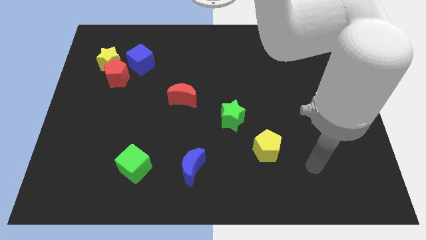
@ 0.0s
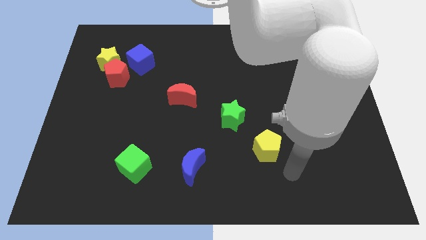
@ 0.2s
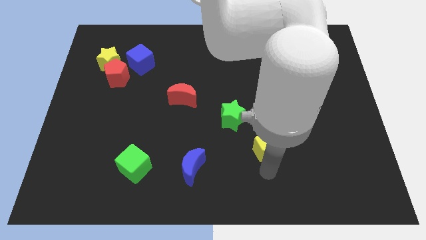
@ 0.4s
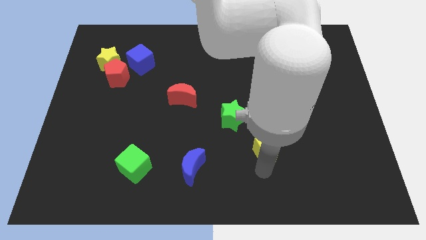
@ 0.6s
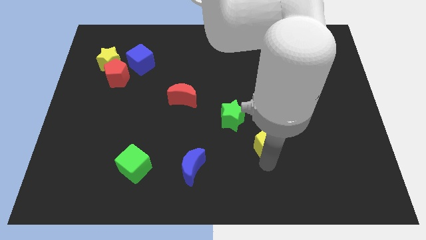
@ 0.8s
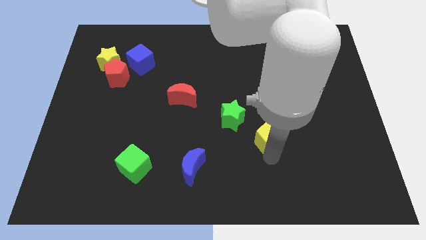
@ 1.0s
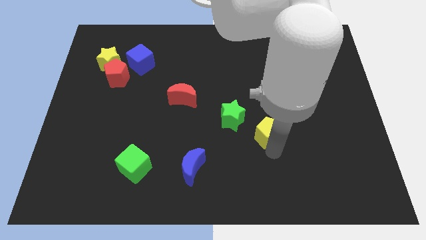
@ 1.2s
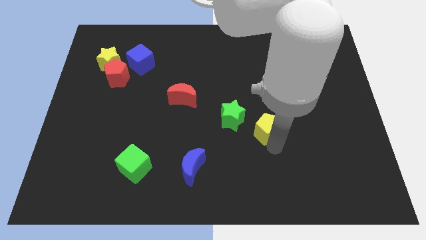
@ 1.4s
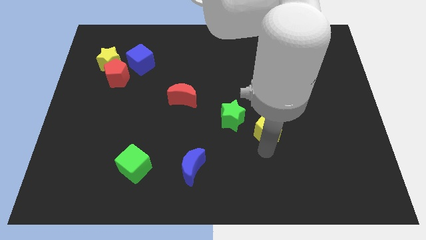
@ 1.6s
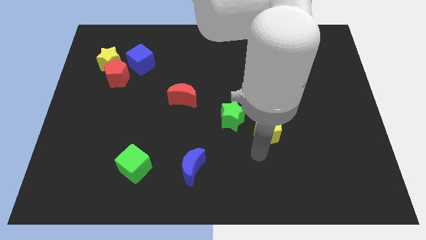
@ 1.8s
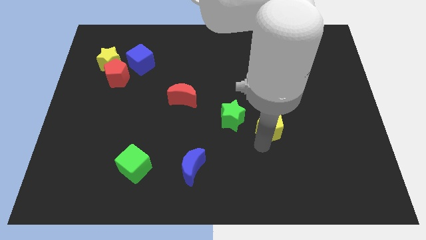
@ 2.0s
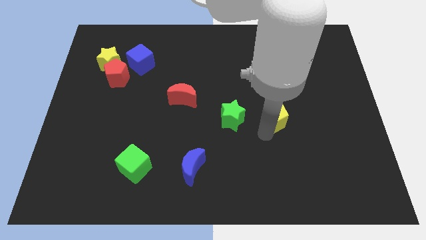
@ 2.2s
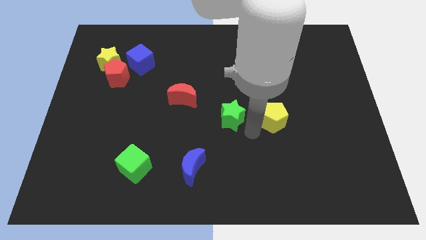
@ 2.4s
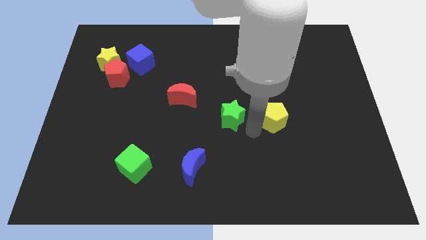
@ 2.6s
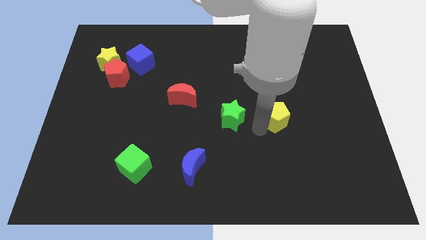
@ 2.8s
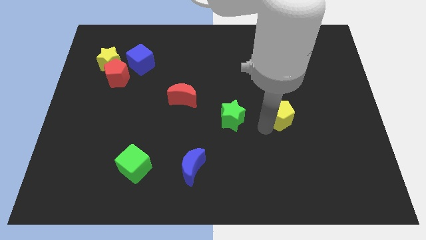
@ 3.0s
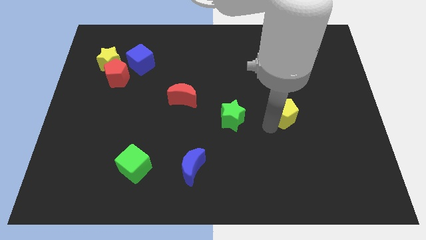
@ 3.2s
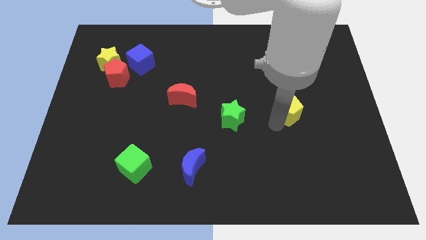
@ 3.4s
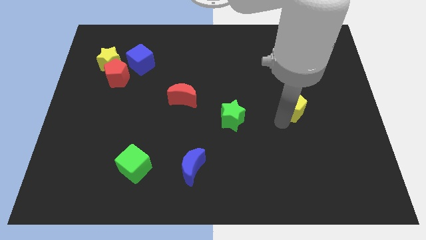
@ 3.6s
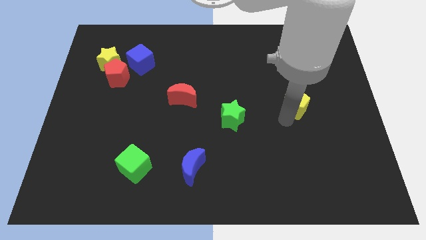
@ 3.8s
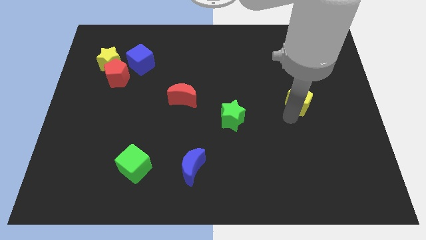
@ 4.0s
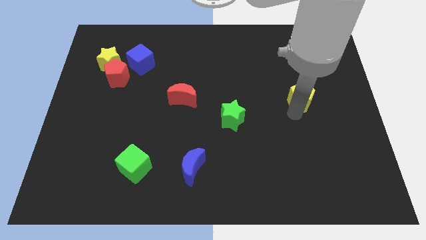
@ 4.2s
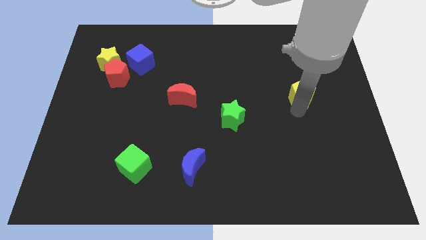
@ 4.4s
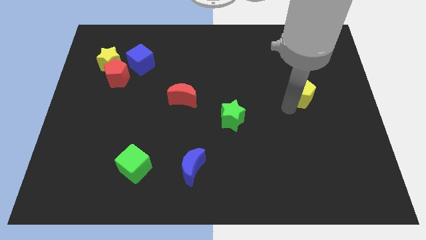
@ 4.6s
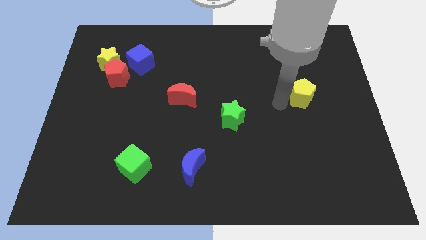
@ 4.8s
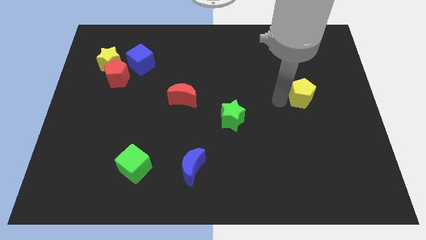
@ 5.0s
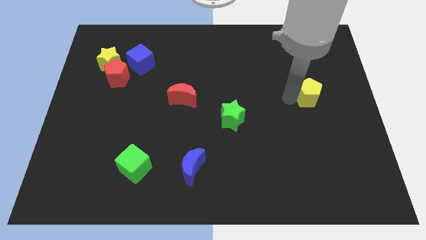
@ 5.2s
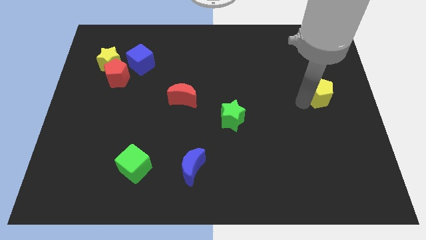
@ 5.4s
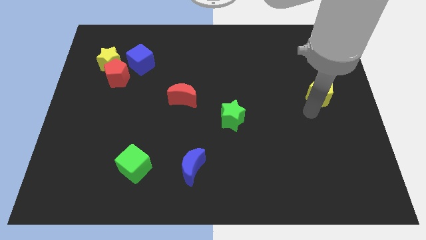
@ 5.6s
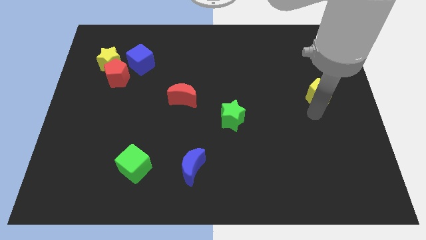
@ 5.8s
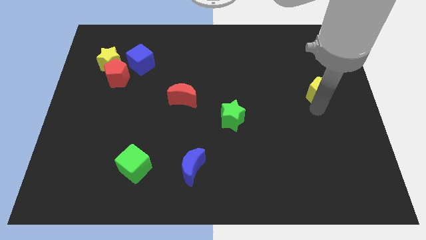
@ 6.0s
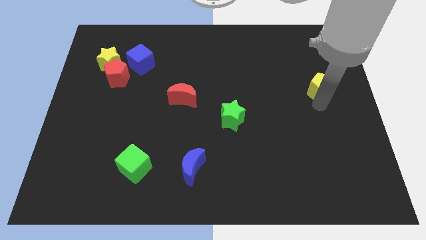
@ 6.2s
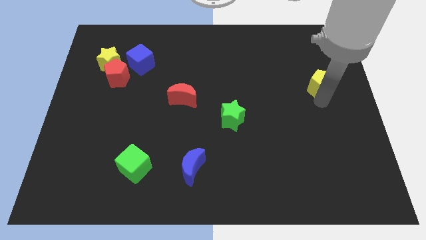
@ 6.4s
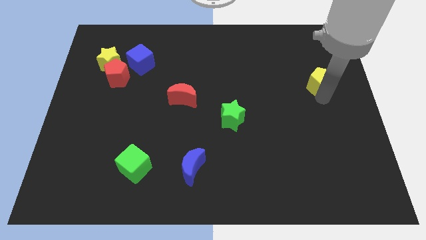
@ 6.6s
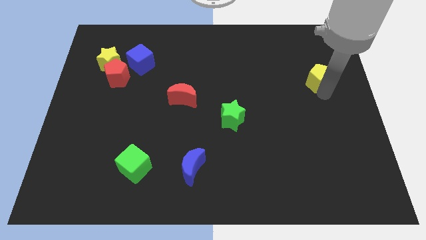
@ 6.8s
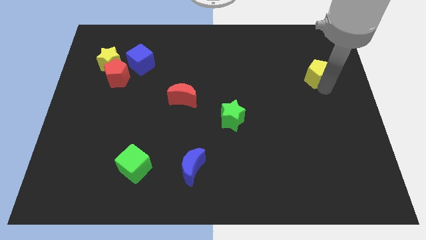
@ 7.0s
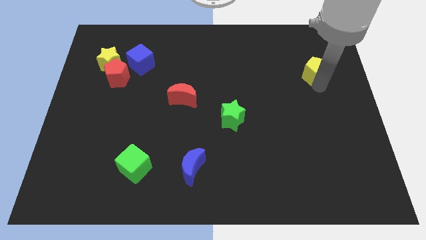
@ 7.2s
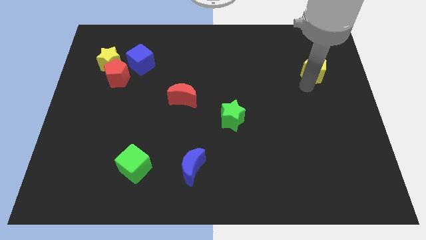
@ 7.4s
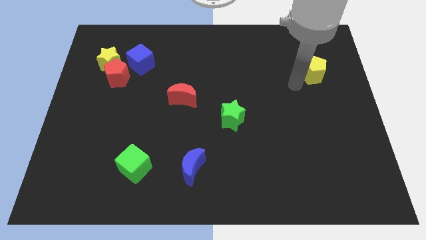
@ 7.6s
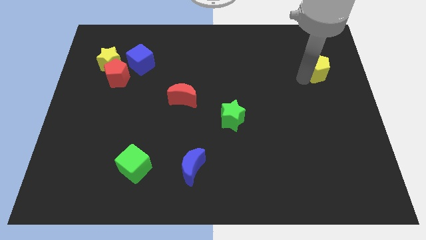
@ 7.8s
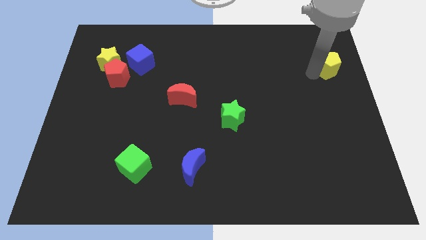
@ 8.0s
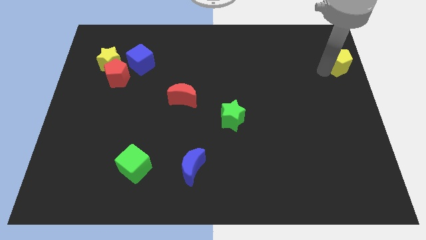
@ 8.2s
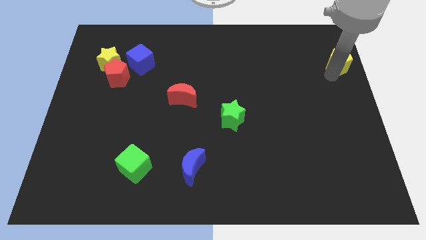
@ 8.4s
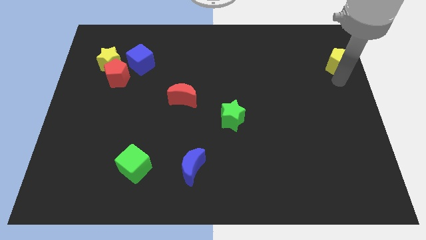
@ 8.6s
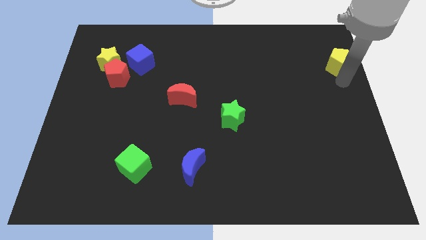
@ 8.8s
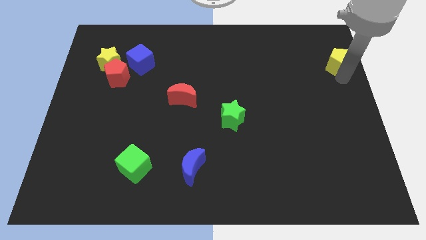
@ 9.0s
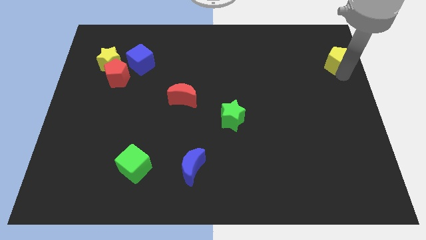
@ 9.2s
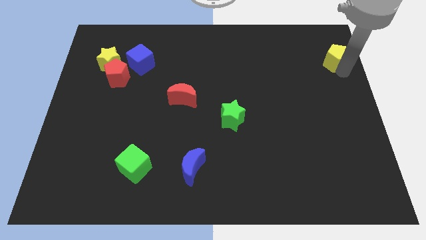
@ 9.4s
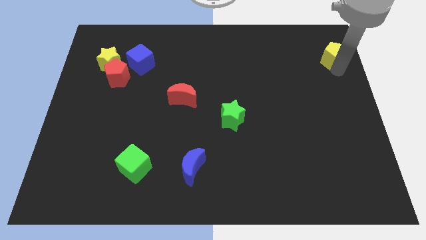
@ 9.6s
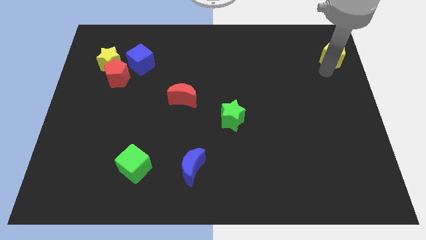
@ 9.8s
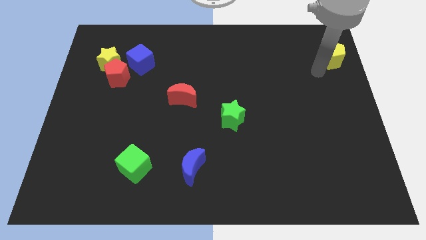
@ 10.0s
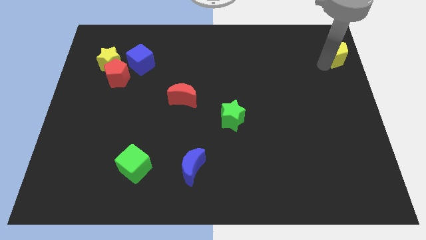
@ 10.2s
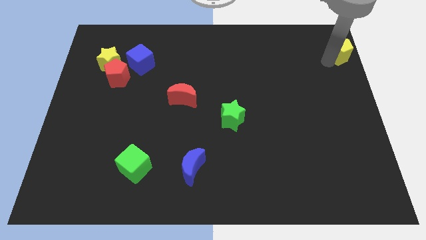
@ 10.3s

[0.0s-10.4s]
push the yellow pentagon to the top right corner

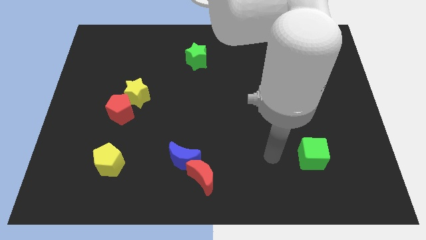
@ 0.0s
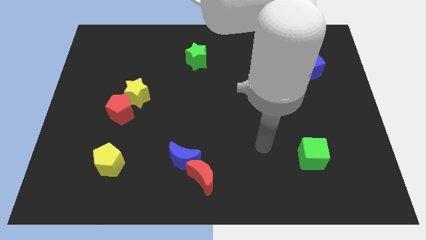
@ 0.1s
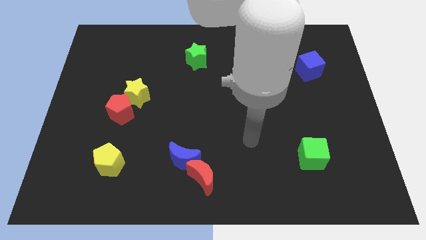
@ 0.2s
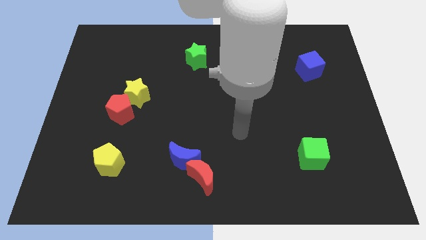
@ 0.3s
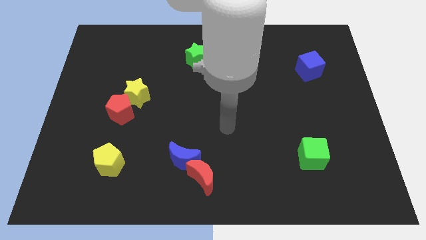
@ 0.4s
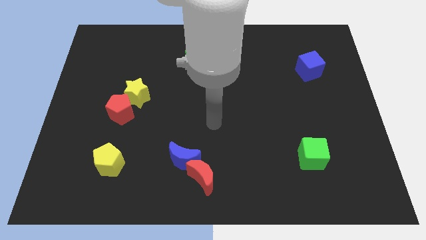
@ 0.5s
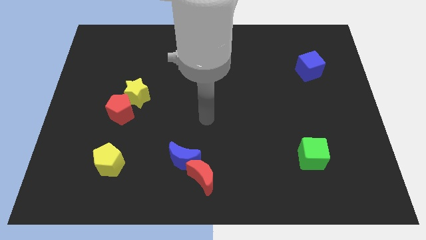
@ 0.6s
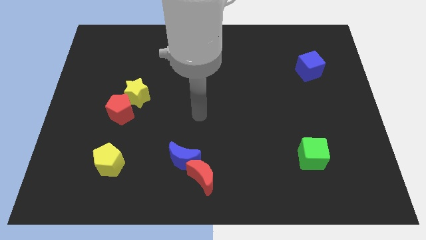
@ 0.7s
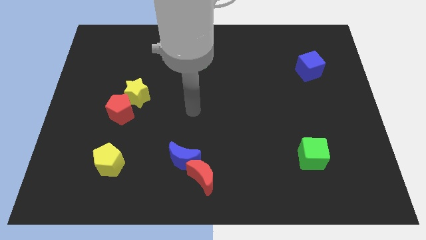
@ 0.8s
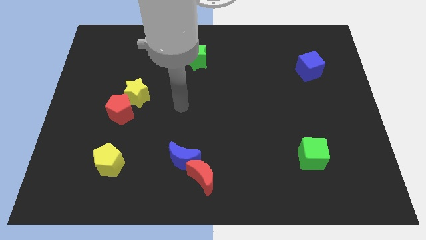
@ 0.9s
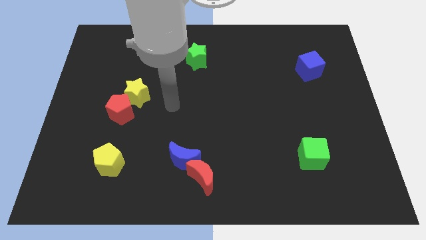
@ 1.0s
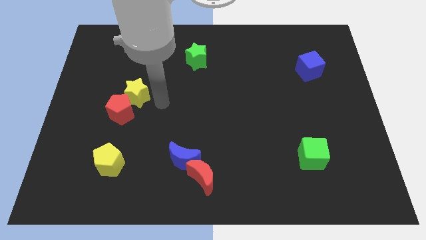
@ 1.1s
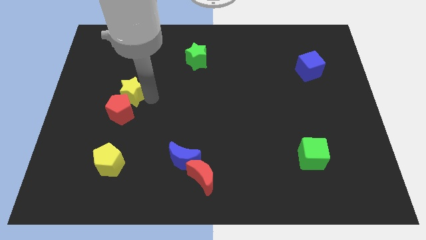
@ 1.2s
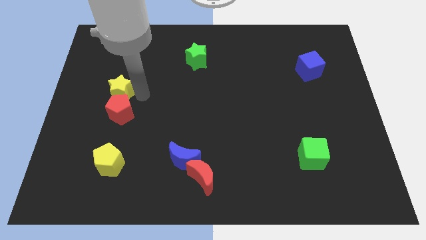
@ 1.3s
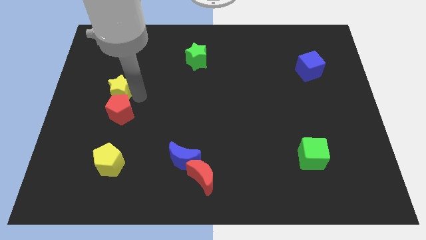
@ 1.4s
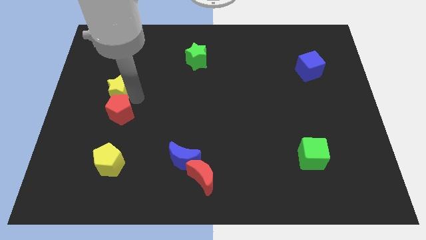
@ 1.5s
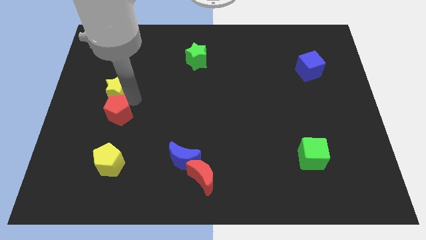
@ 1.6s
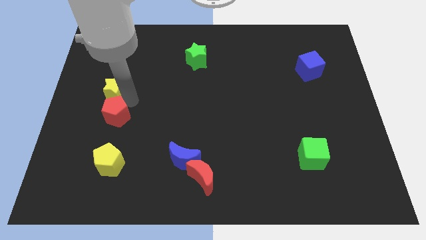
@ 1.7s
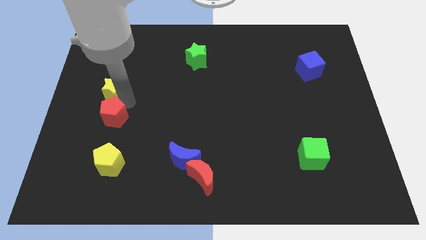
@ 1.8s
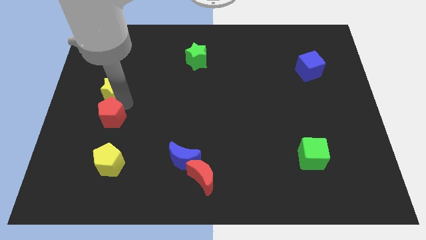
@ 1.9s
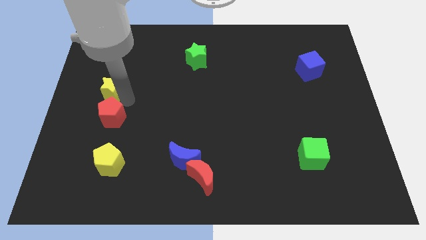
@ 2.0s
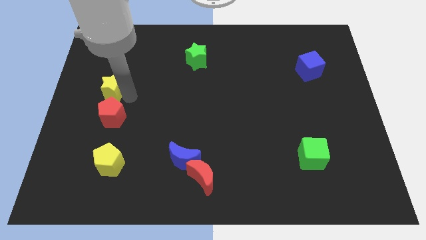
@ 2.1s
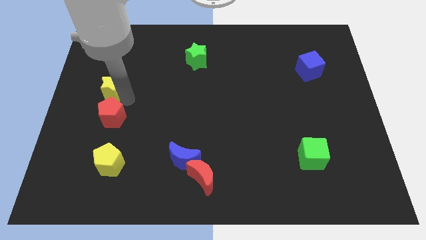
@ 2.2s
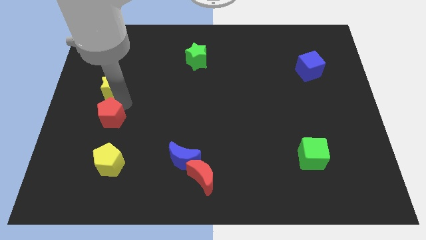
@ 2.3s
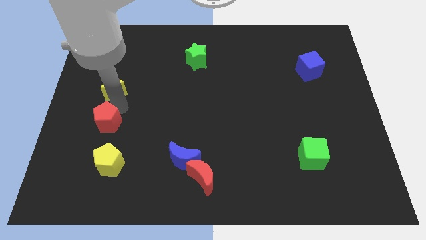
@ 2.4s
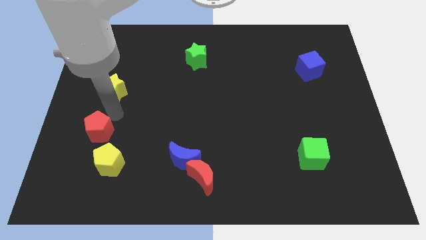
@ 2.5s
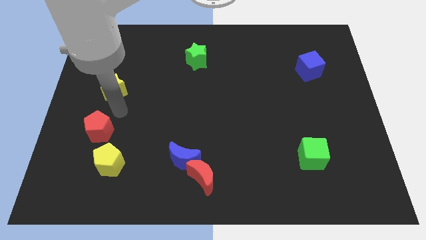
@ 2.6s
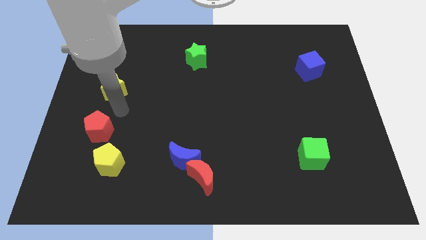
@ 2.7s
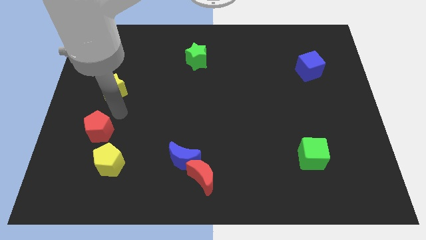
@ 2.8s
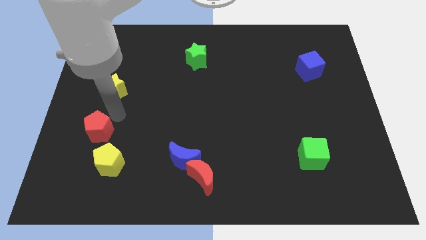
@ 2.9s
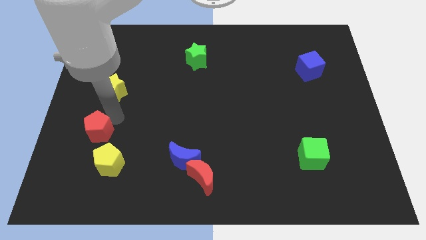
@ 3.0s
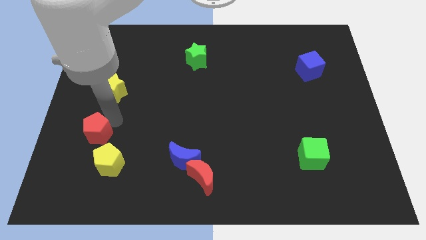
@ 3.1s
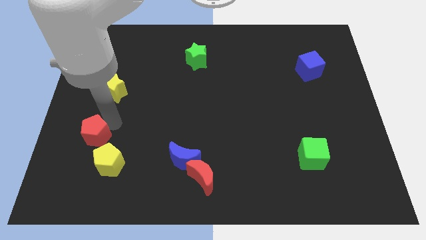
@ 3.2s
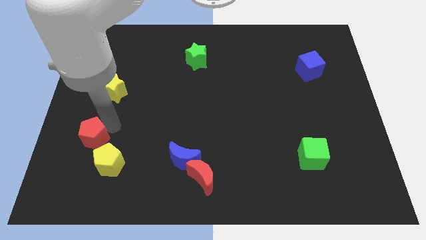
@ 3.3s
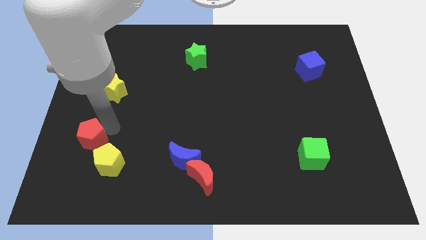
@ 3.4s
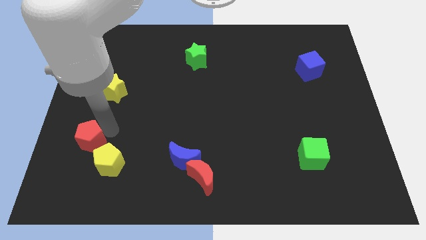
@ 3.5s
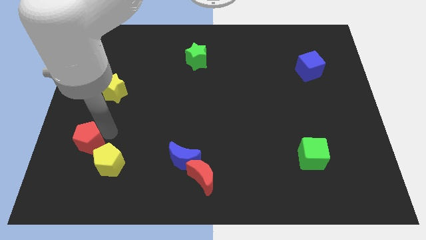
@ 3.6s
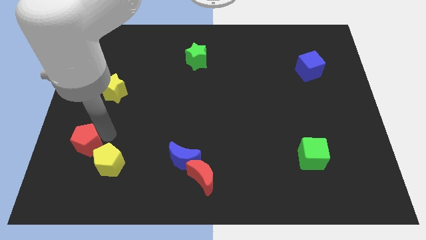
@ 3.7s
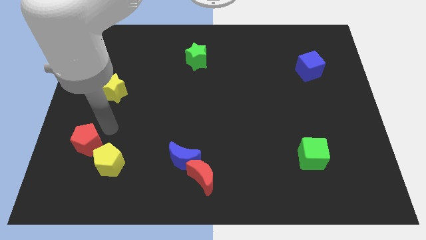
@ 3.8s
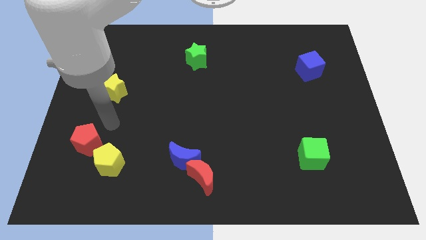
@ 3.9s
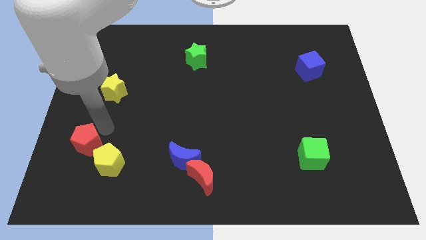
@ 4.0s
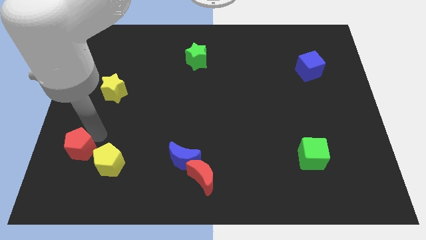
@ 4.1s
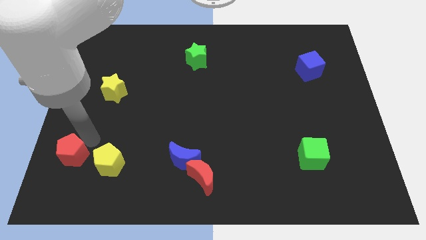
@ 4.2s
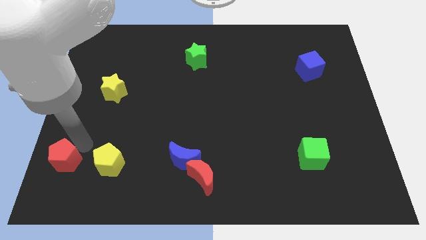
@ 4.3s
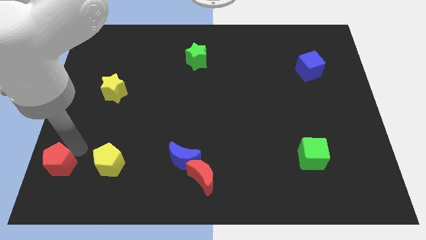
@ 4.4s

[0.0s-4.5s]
slide the red pentagon to the bottom left corner
